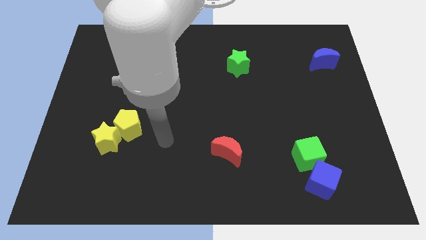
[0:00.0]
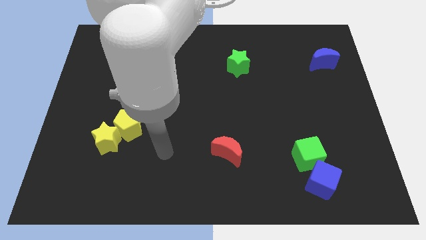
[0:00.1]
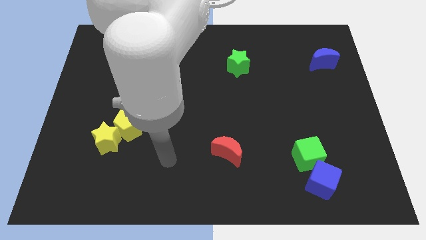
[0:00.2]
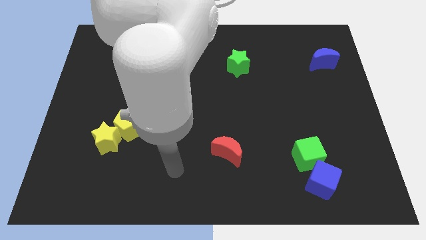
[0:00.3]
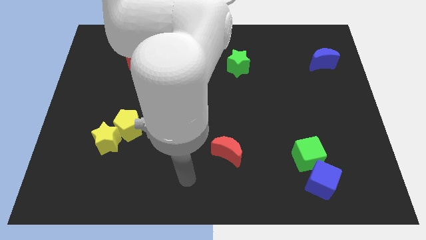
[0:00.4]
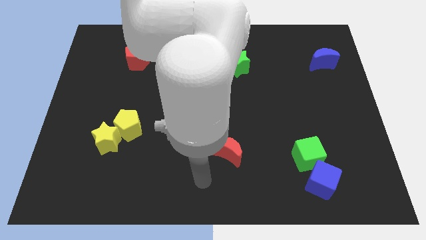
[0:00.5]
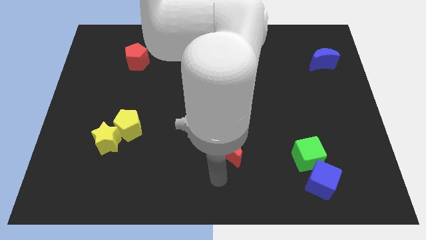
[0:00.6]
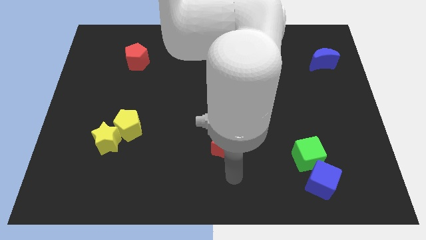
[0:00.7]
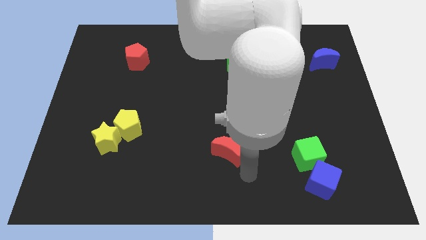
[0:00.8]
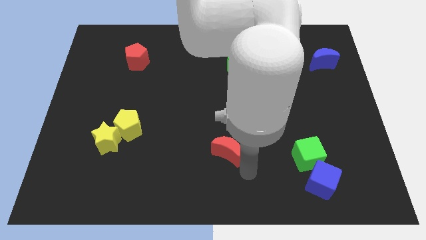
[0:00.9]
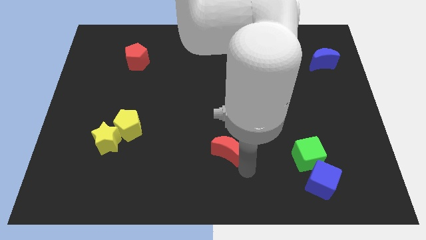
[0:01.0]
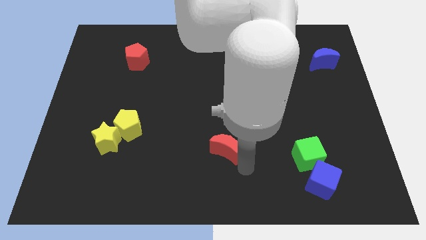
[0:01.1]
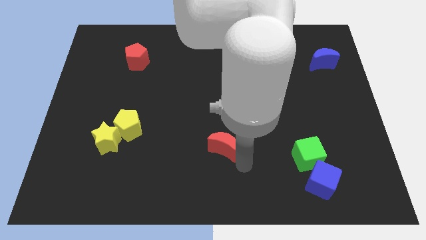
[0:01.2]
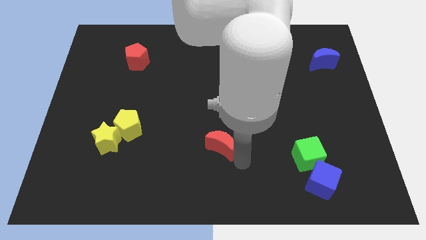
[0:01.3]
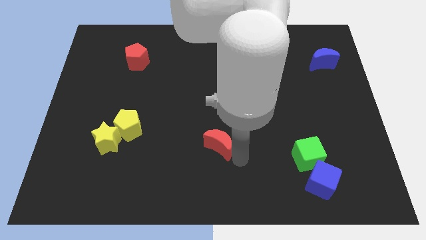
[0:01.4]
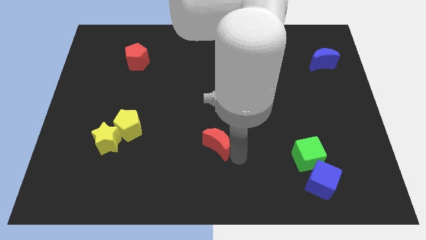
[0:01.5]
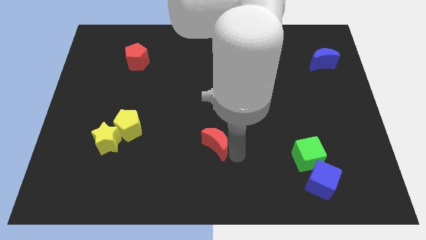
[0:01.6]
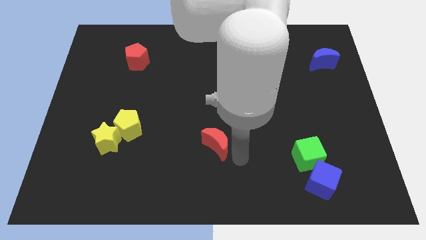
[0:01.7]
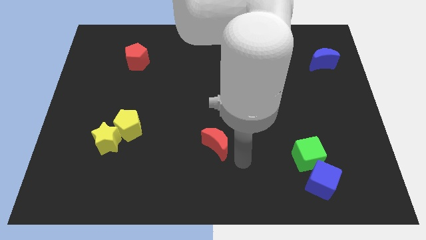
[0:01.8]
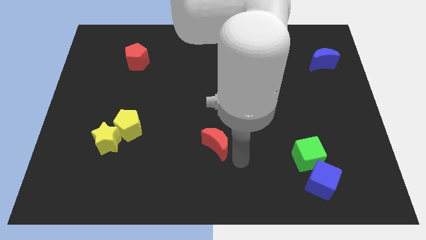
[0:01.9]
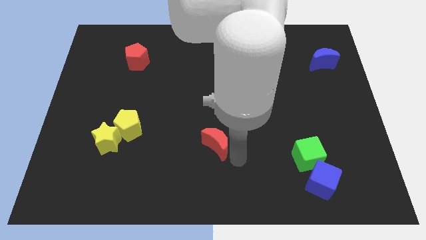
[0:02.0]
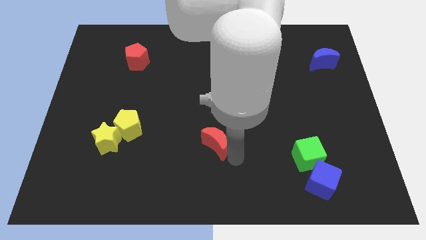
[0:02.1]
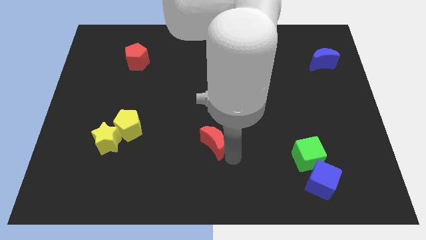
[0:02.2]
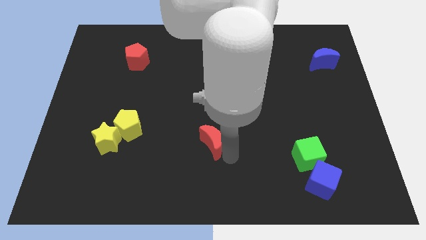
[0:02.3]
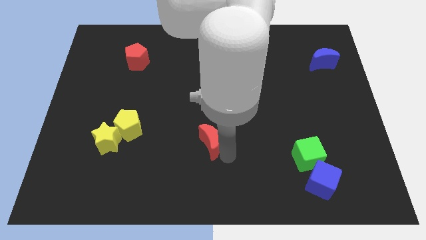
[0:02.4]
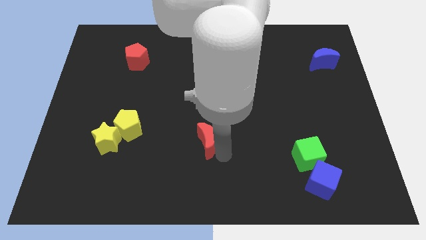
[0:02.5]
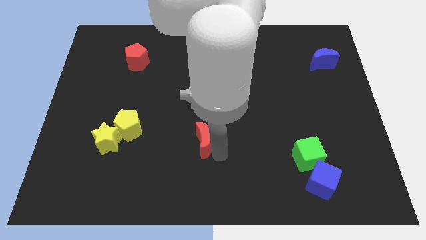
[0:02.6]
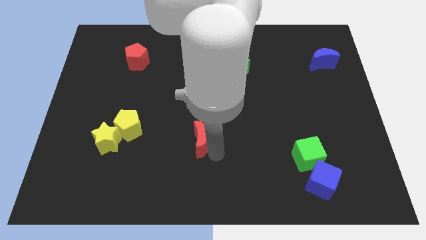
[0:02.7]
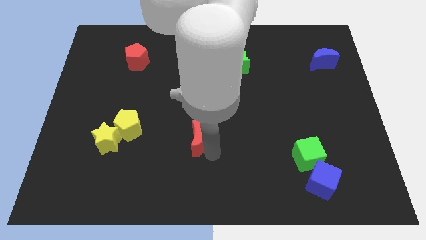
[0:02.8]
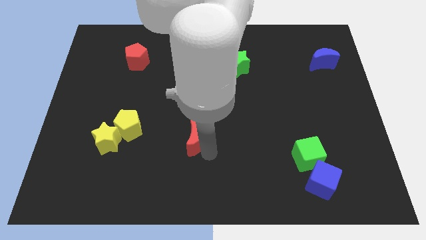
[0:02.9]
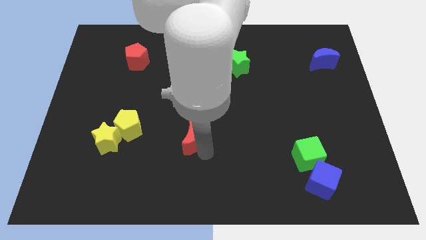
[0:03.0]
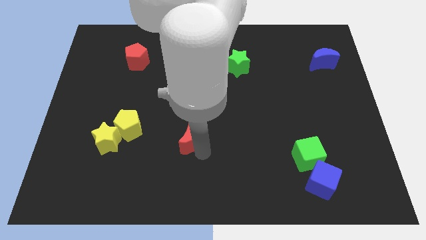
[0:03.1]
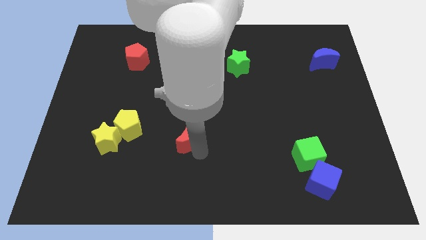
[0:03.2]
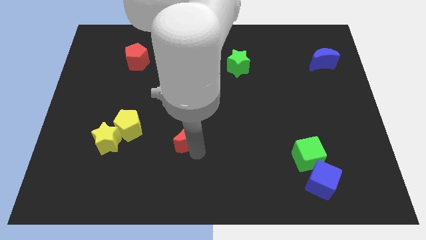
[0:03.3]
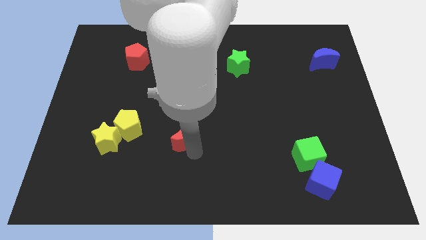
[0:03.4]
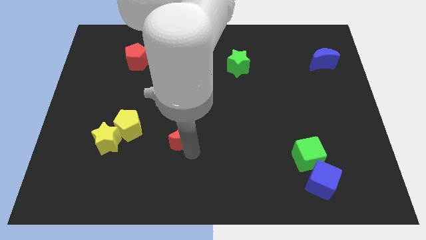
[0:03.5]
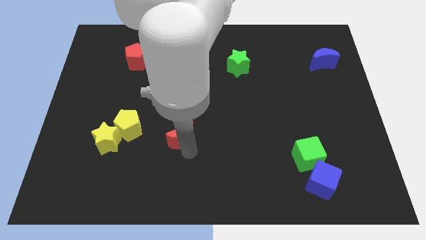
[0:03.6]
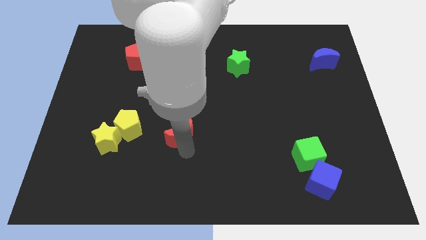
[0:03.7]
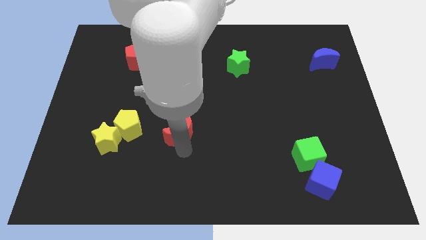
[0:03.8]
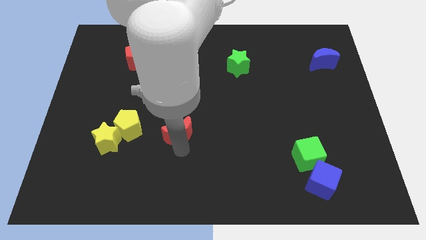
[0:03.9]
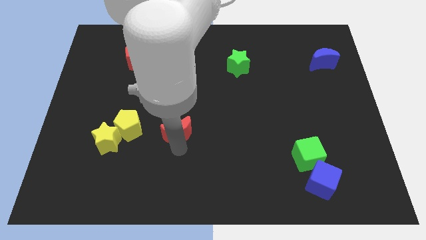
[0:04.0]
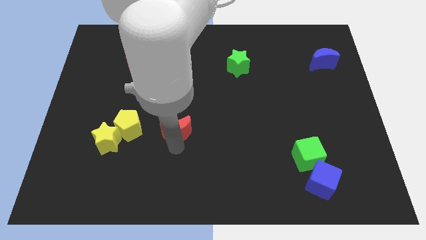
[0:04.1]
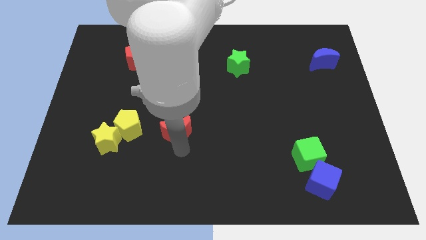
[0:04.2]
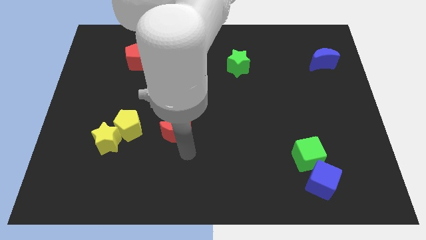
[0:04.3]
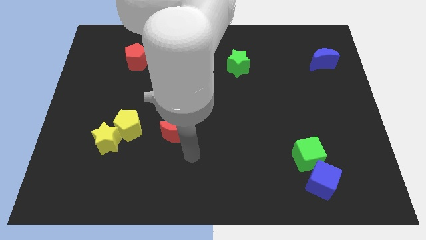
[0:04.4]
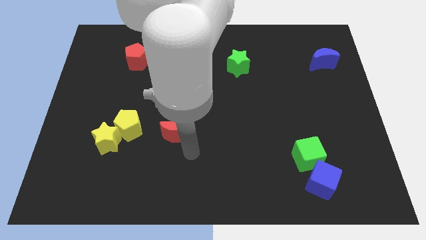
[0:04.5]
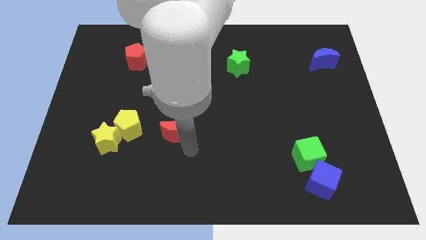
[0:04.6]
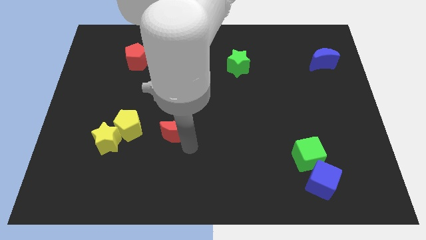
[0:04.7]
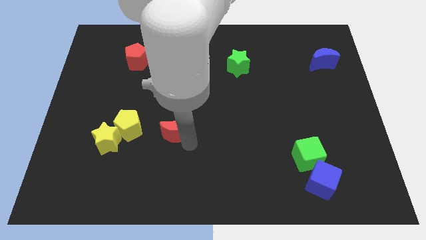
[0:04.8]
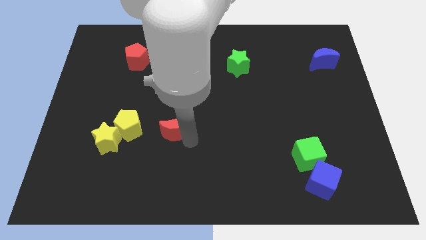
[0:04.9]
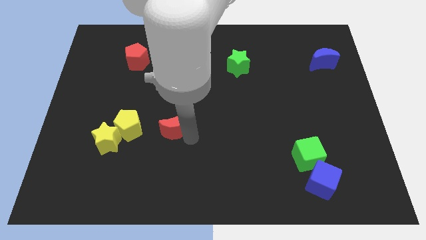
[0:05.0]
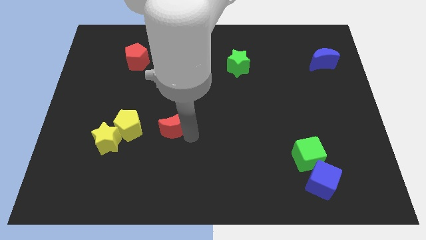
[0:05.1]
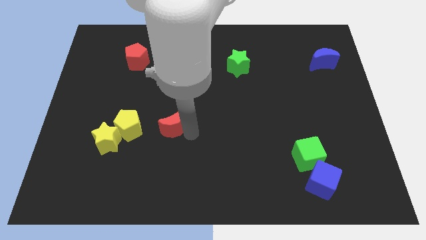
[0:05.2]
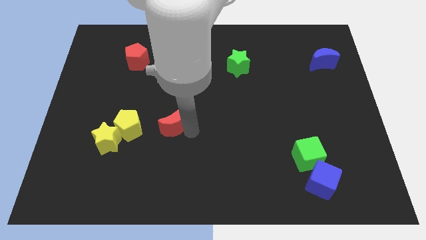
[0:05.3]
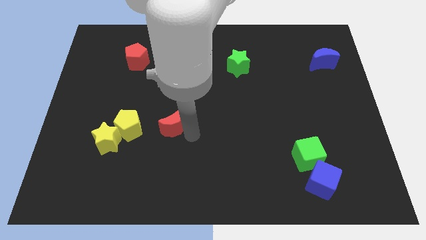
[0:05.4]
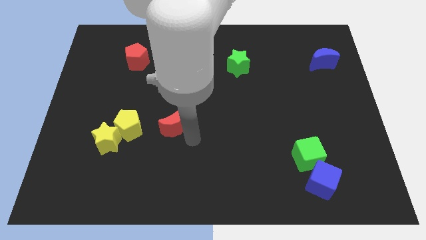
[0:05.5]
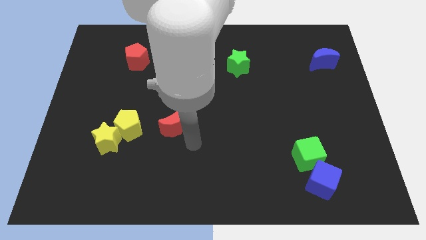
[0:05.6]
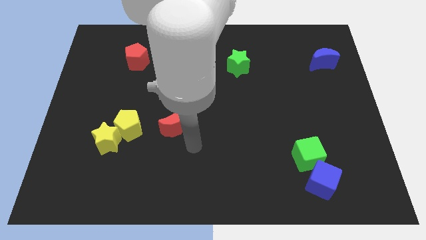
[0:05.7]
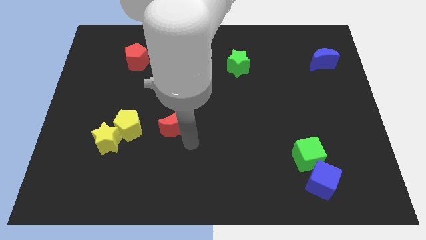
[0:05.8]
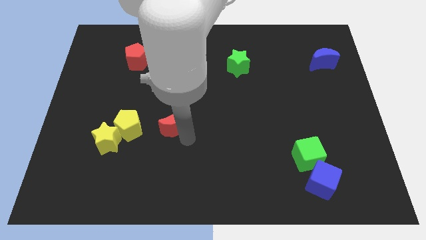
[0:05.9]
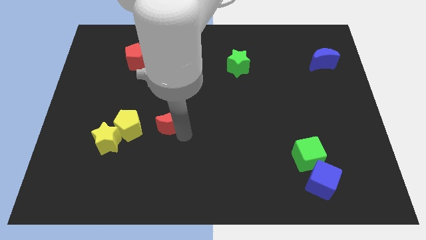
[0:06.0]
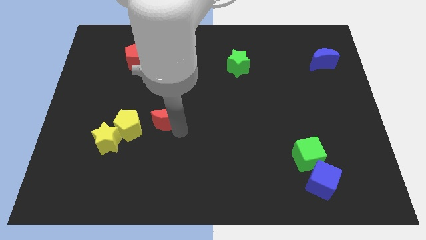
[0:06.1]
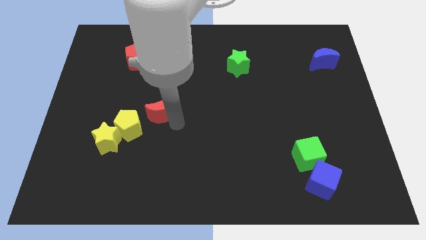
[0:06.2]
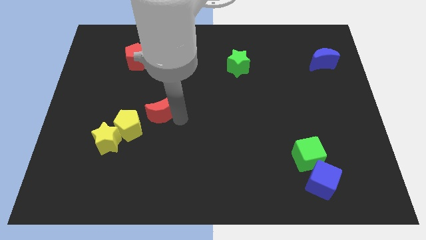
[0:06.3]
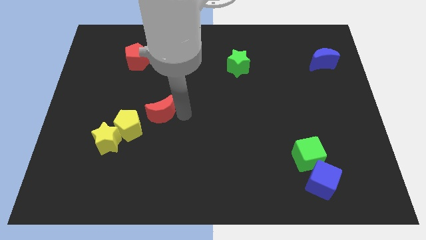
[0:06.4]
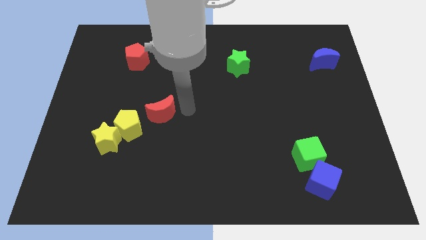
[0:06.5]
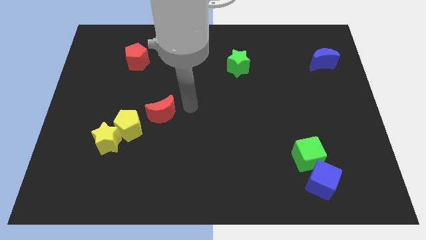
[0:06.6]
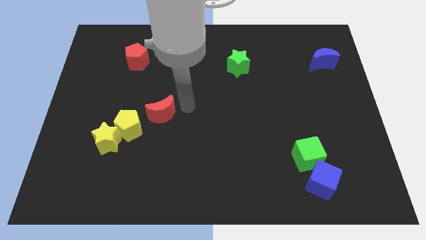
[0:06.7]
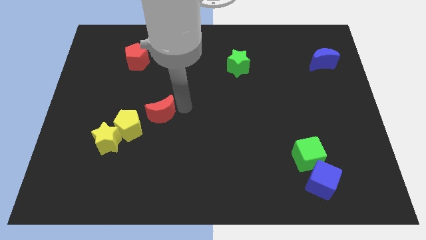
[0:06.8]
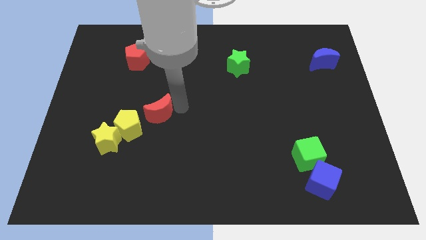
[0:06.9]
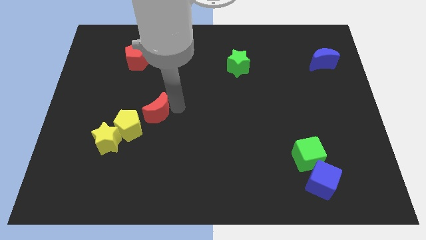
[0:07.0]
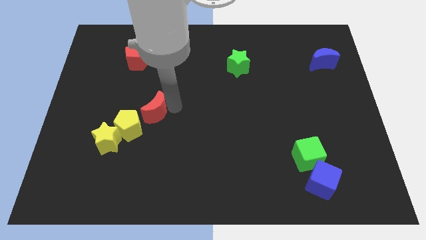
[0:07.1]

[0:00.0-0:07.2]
slide the red moon diagonally up and to the right of the yellow star

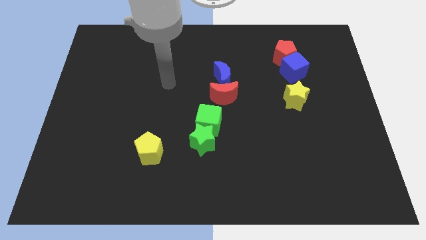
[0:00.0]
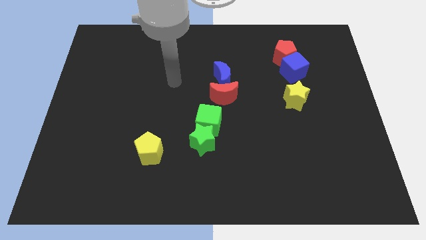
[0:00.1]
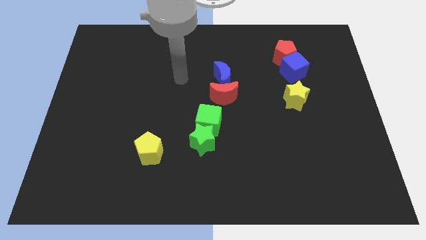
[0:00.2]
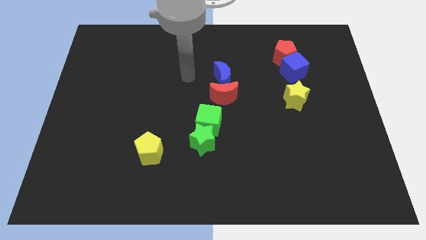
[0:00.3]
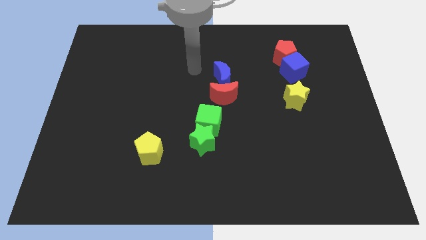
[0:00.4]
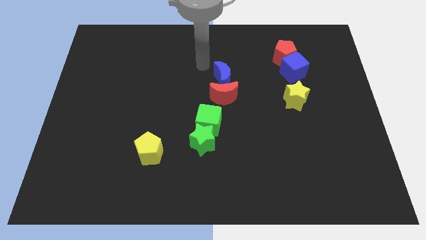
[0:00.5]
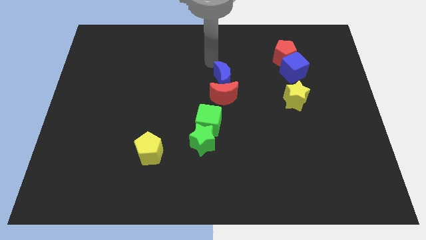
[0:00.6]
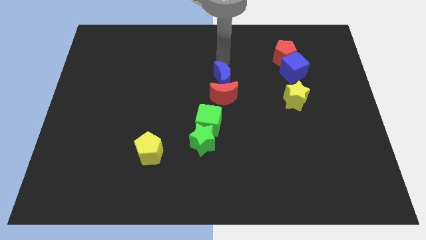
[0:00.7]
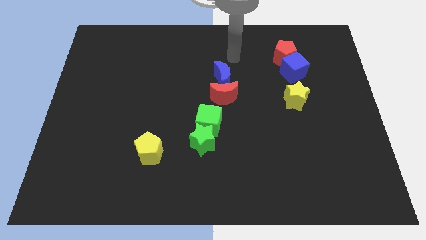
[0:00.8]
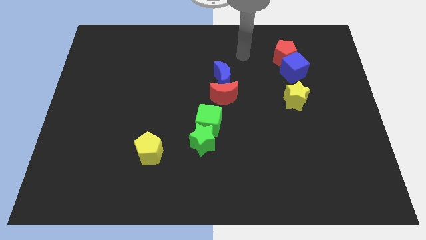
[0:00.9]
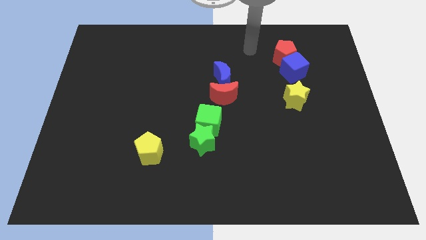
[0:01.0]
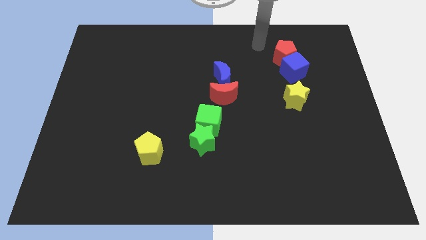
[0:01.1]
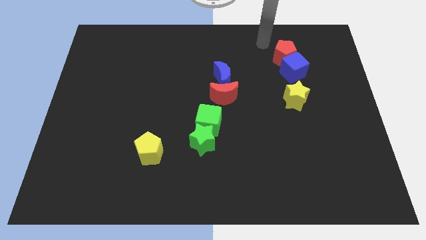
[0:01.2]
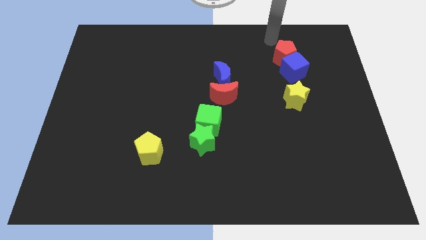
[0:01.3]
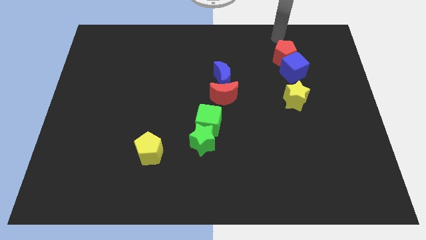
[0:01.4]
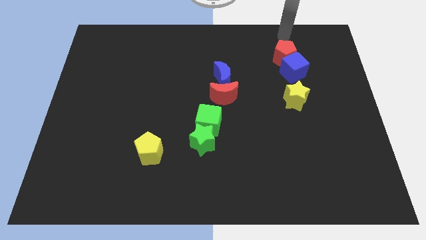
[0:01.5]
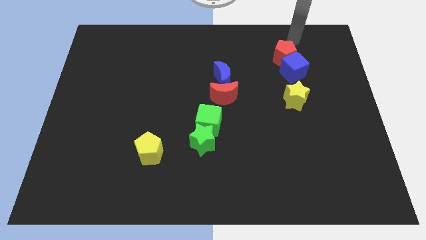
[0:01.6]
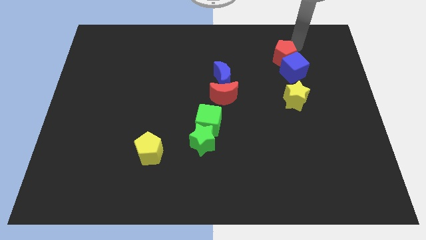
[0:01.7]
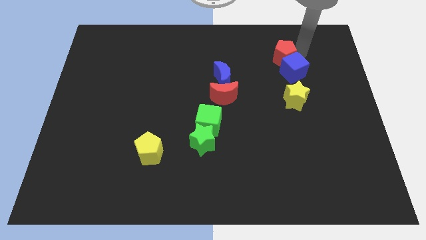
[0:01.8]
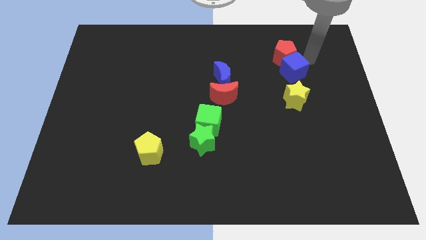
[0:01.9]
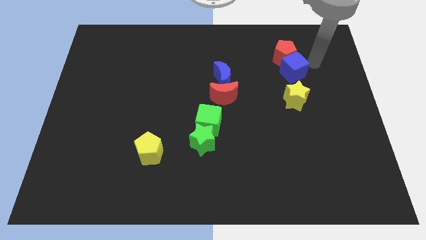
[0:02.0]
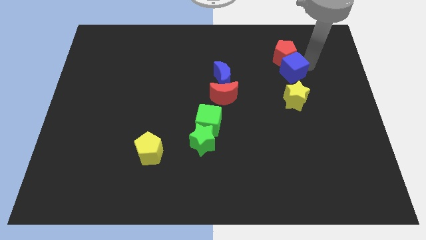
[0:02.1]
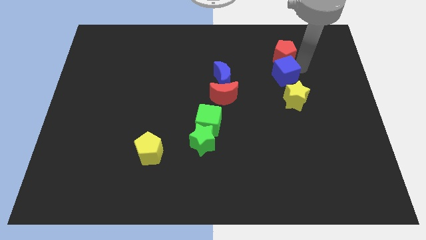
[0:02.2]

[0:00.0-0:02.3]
put the blue cube to the right side of the blue moon
